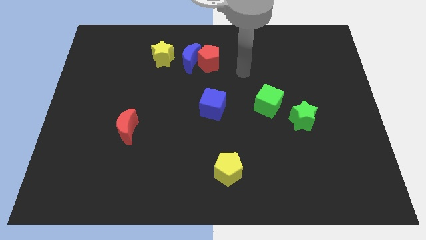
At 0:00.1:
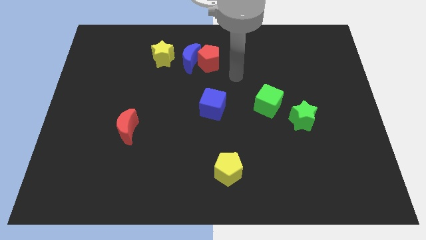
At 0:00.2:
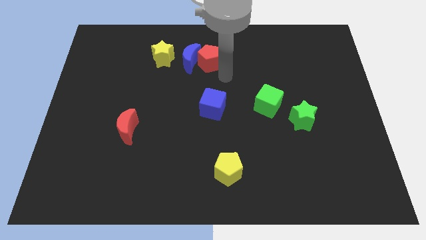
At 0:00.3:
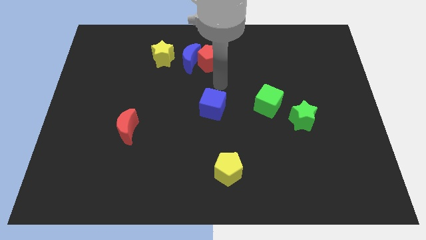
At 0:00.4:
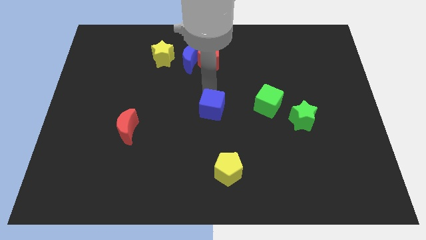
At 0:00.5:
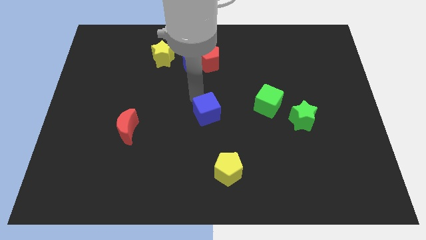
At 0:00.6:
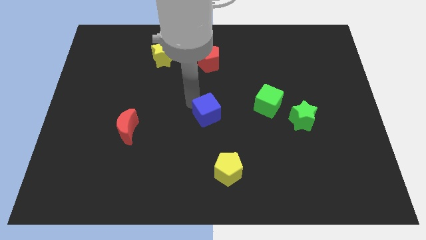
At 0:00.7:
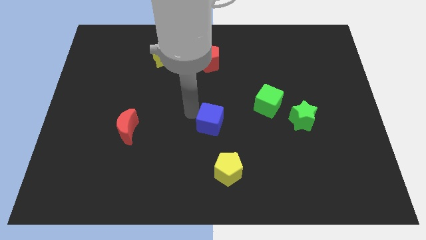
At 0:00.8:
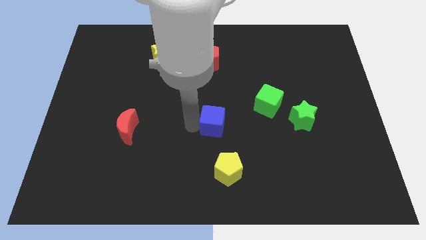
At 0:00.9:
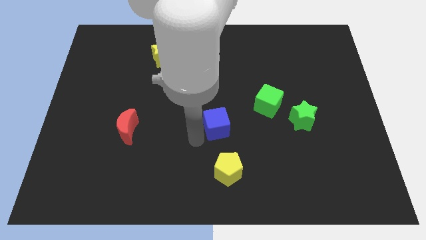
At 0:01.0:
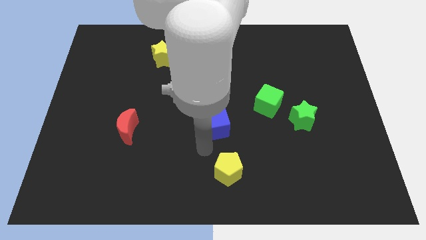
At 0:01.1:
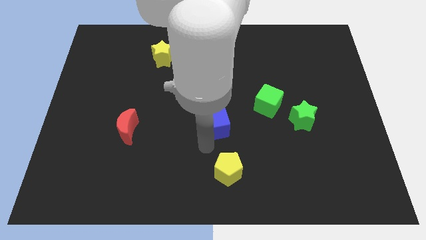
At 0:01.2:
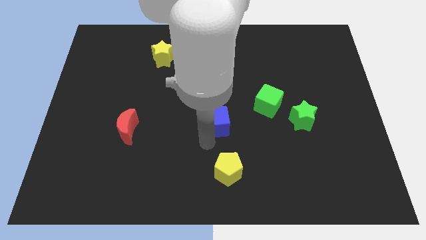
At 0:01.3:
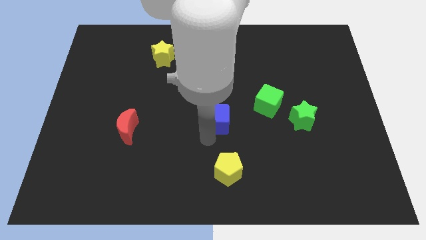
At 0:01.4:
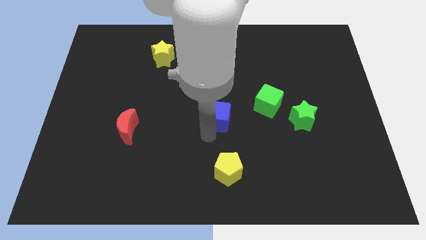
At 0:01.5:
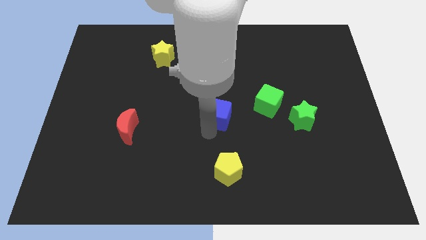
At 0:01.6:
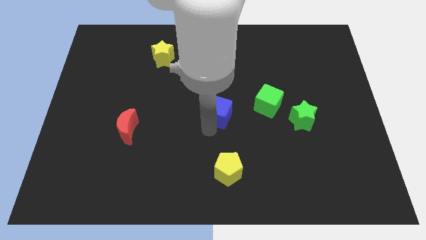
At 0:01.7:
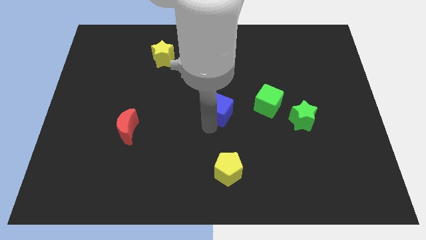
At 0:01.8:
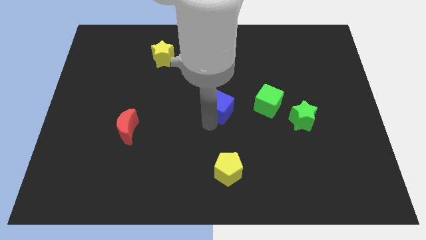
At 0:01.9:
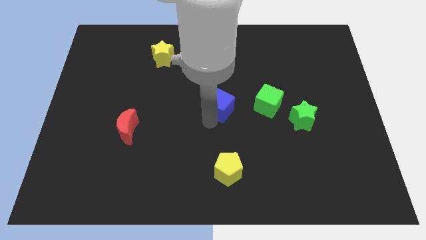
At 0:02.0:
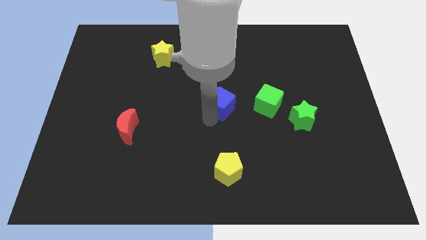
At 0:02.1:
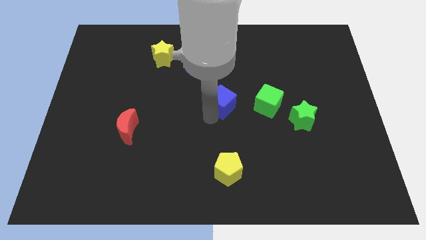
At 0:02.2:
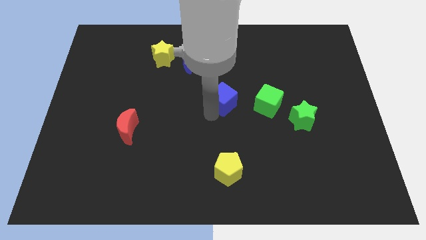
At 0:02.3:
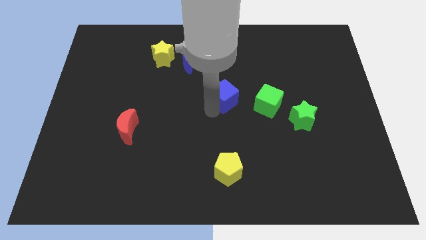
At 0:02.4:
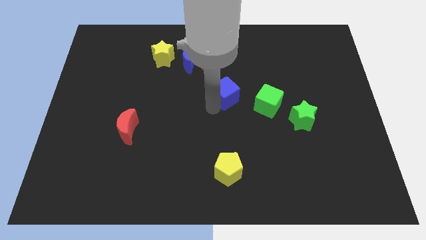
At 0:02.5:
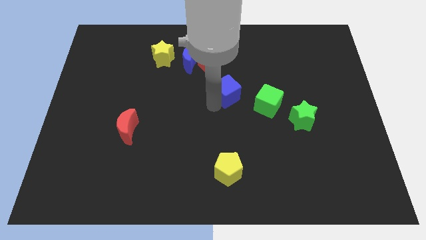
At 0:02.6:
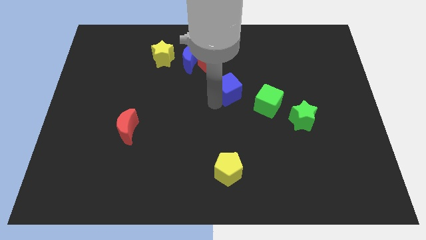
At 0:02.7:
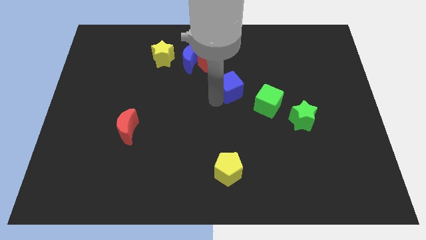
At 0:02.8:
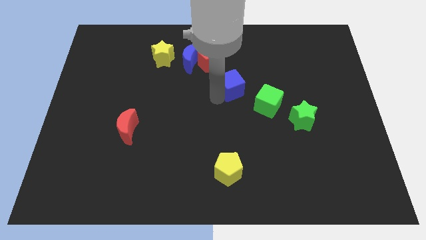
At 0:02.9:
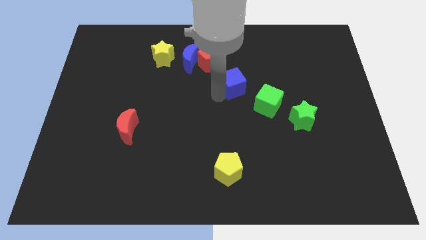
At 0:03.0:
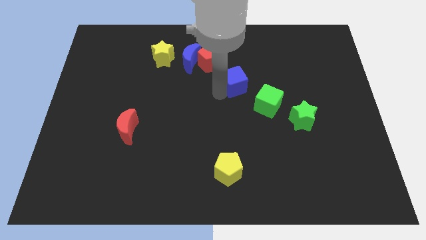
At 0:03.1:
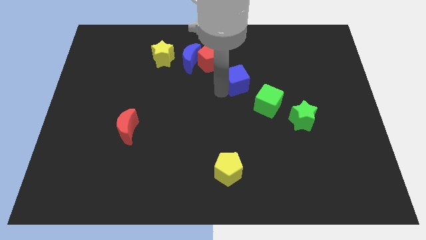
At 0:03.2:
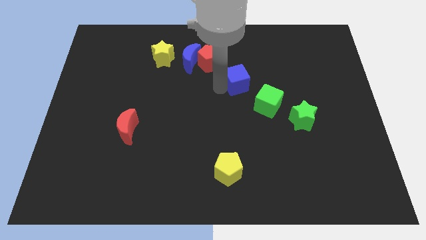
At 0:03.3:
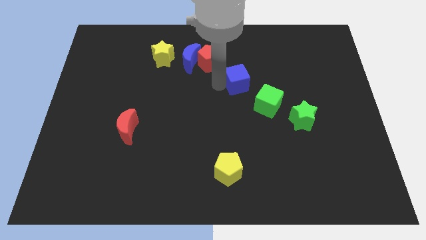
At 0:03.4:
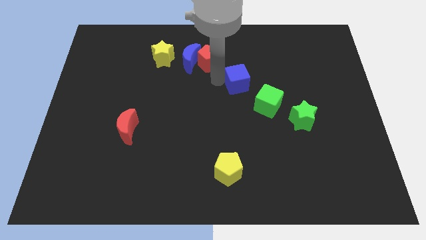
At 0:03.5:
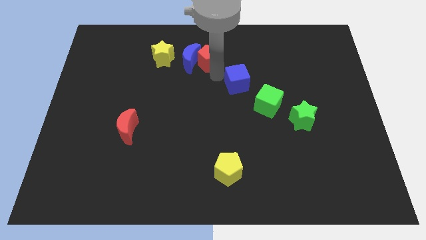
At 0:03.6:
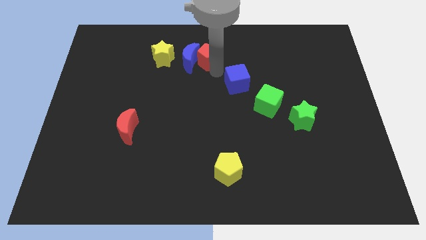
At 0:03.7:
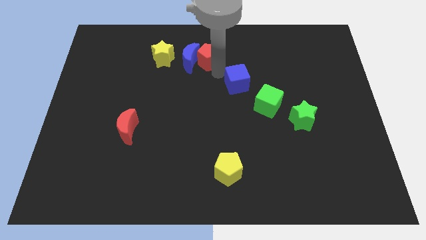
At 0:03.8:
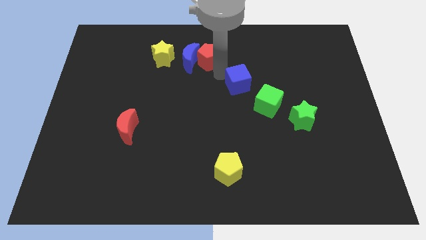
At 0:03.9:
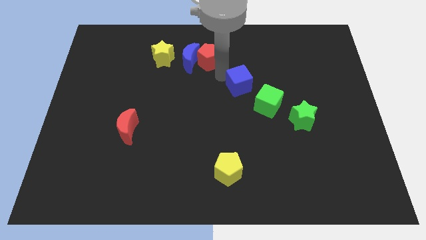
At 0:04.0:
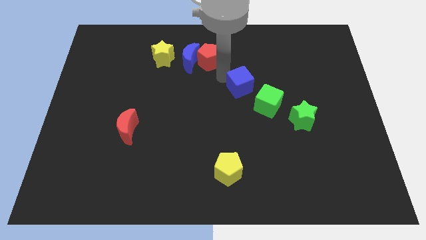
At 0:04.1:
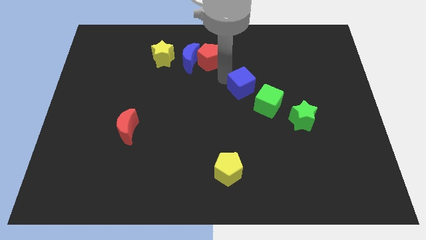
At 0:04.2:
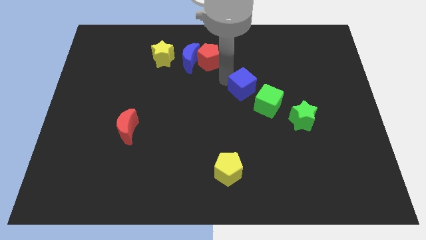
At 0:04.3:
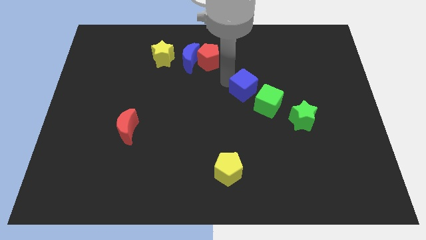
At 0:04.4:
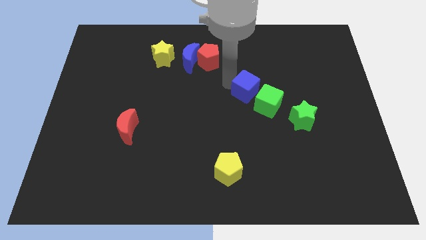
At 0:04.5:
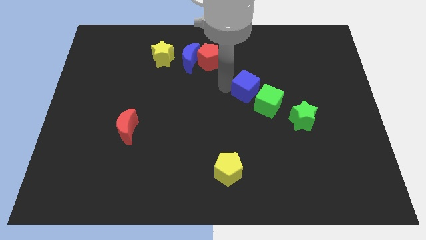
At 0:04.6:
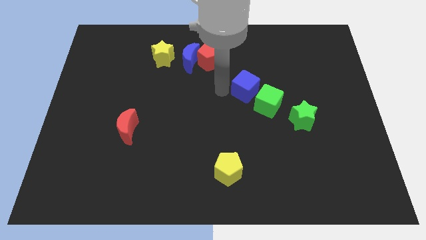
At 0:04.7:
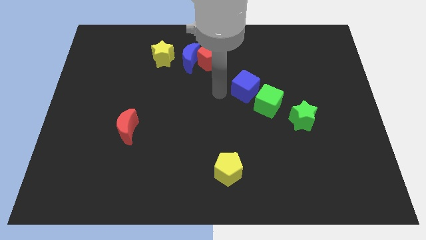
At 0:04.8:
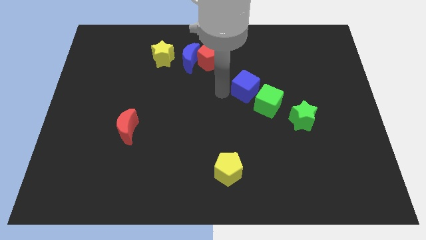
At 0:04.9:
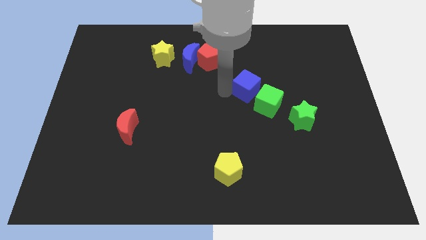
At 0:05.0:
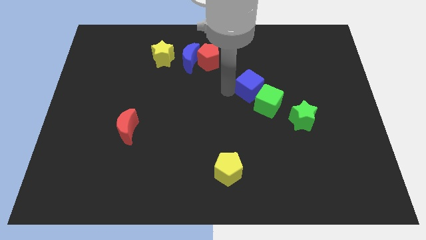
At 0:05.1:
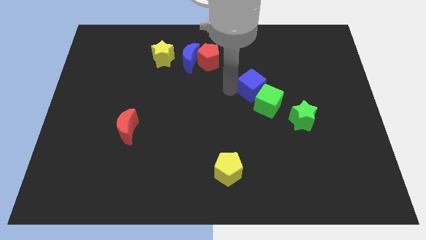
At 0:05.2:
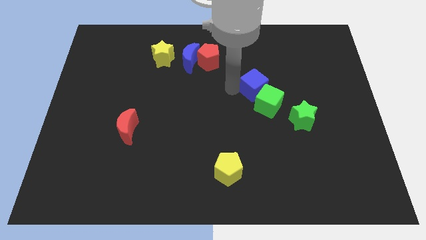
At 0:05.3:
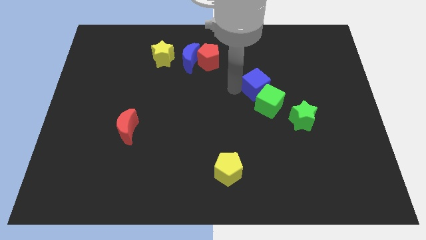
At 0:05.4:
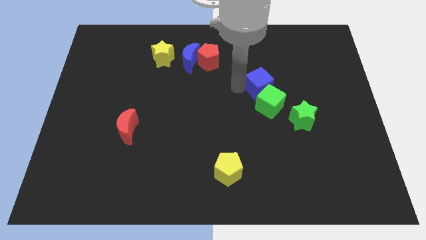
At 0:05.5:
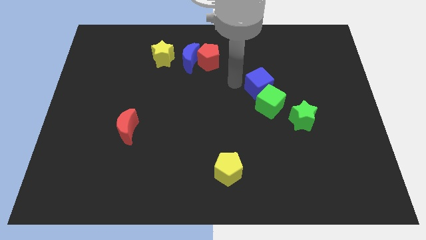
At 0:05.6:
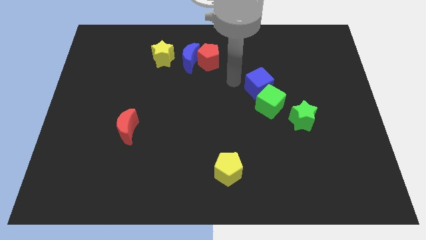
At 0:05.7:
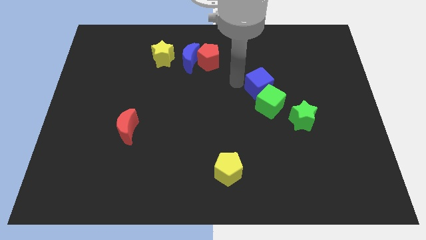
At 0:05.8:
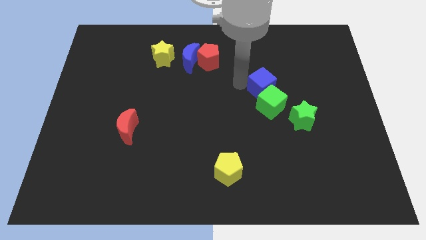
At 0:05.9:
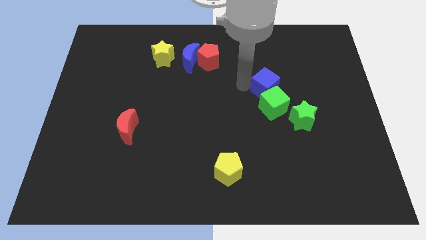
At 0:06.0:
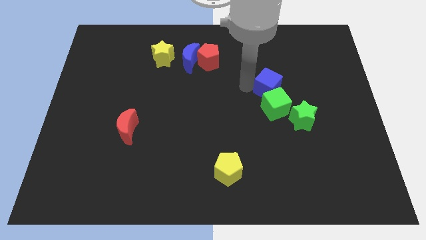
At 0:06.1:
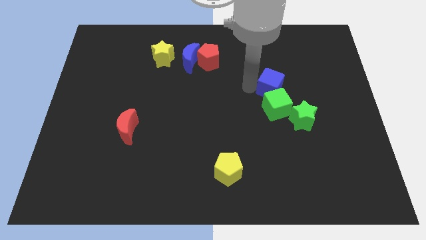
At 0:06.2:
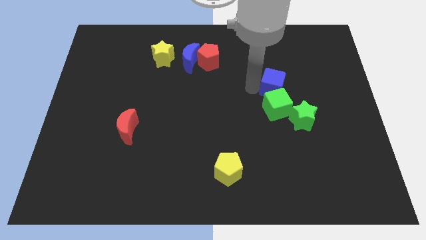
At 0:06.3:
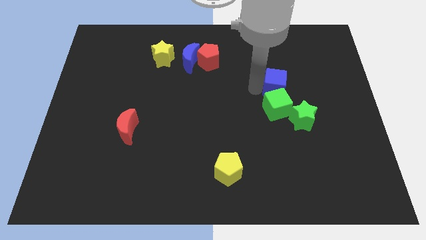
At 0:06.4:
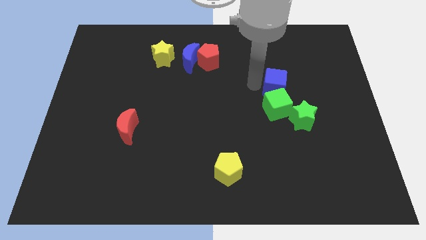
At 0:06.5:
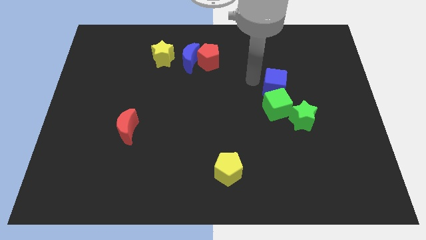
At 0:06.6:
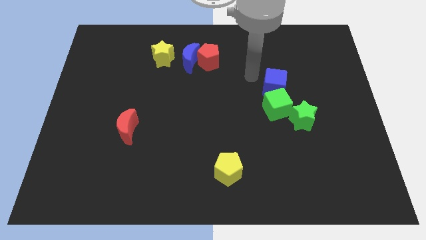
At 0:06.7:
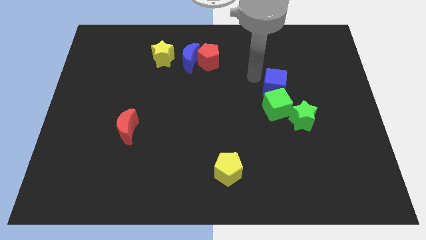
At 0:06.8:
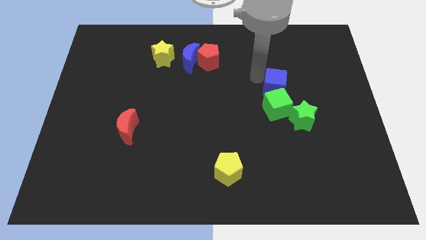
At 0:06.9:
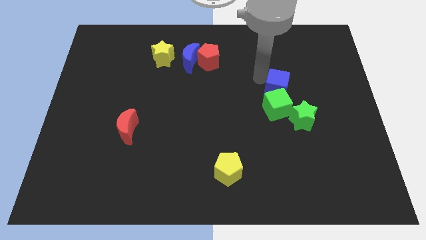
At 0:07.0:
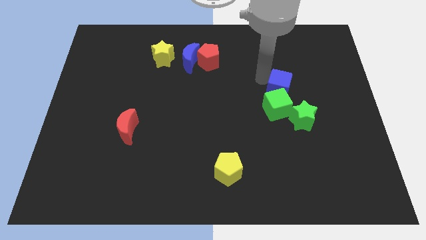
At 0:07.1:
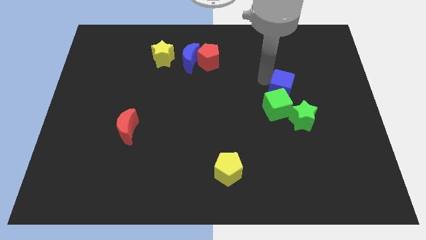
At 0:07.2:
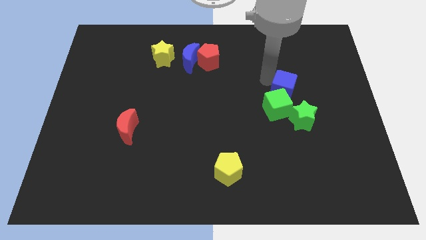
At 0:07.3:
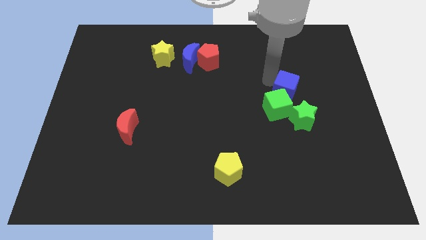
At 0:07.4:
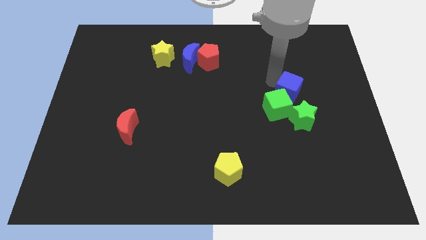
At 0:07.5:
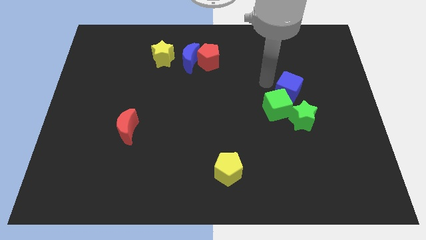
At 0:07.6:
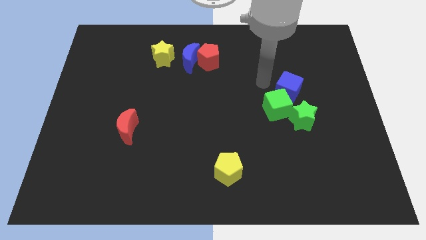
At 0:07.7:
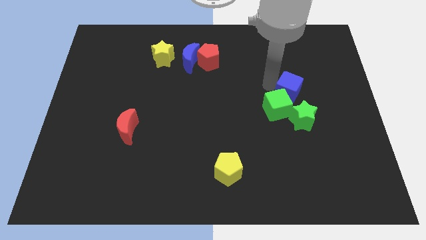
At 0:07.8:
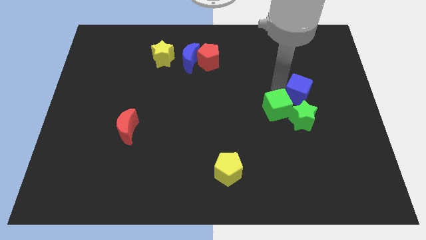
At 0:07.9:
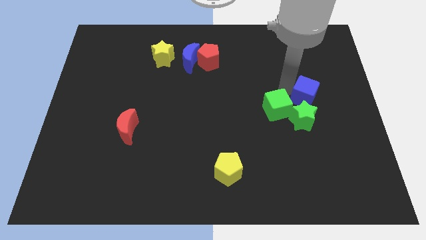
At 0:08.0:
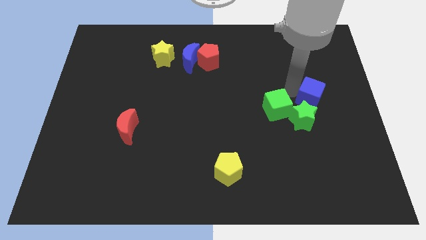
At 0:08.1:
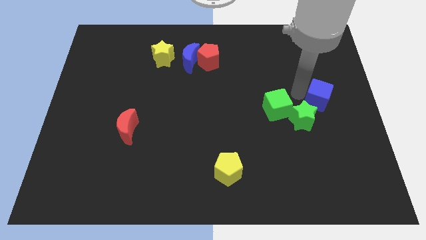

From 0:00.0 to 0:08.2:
push the blue cube to the center right
